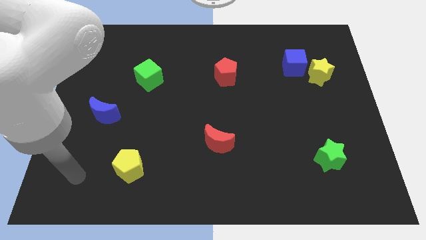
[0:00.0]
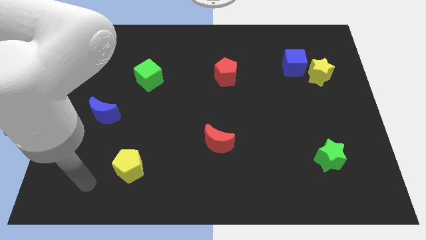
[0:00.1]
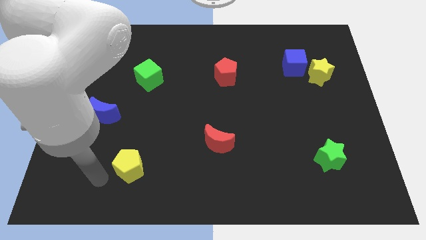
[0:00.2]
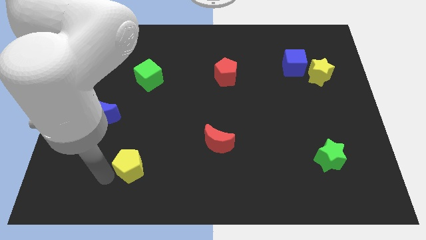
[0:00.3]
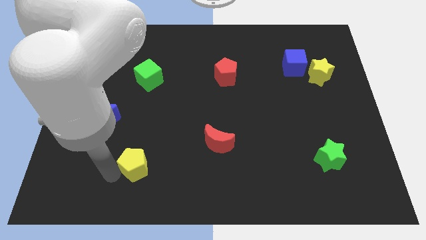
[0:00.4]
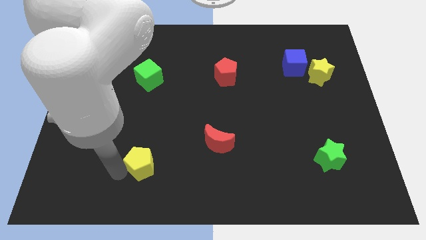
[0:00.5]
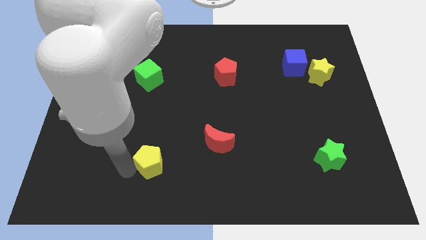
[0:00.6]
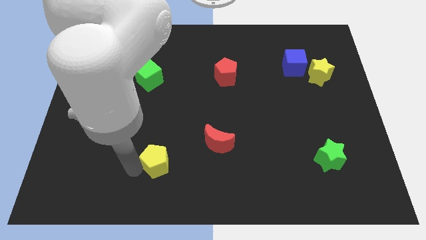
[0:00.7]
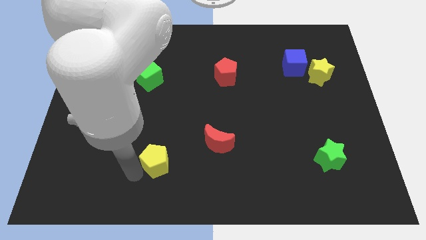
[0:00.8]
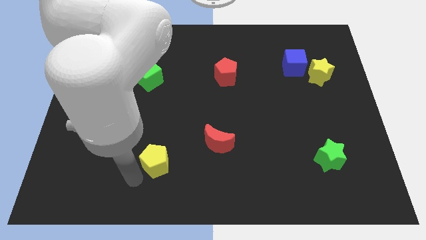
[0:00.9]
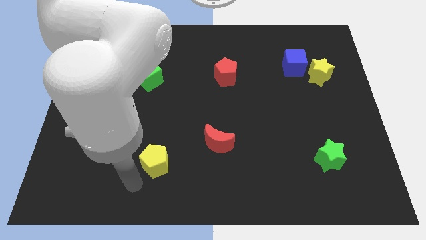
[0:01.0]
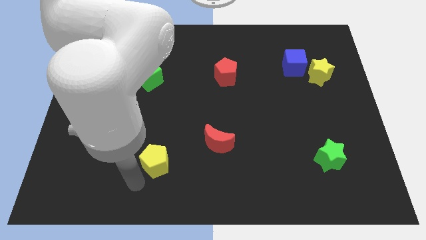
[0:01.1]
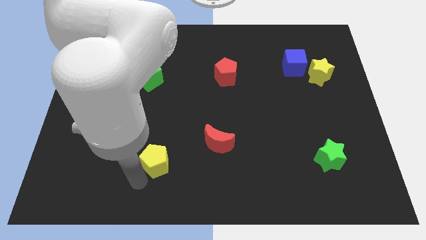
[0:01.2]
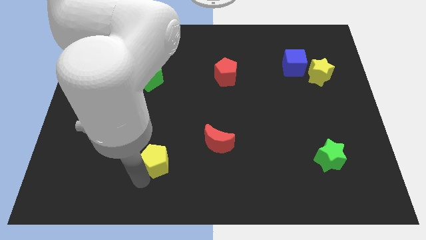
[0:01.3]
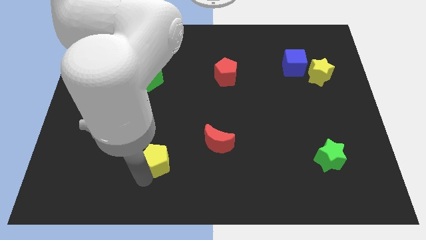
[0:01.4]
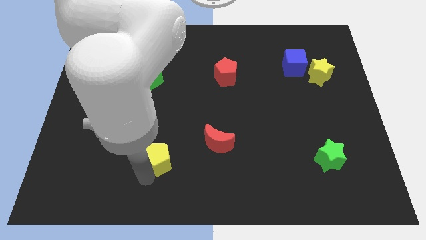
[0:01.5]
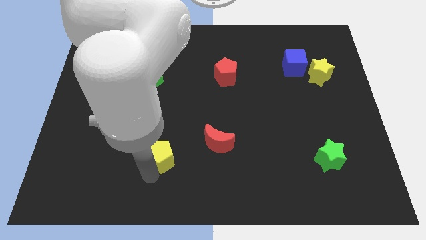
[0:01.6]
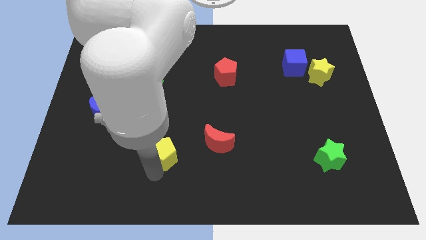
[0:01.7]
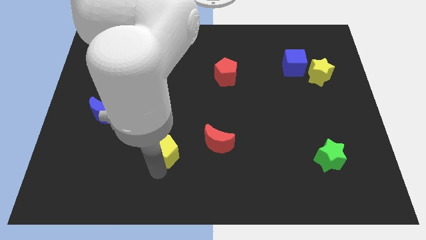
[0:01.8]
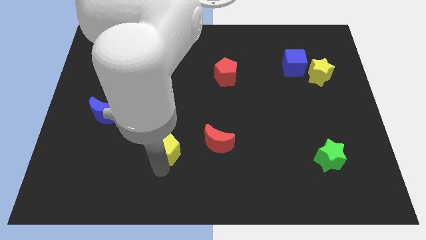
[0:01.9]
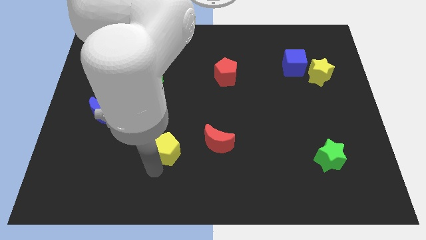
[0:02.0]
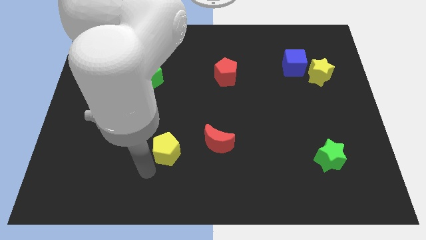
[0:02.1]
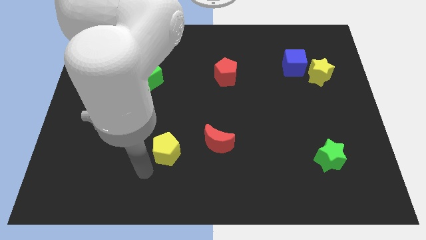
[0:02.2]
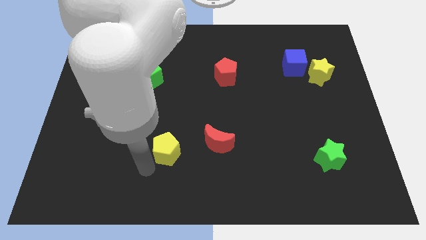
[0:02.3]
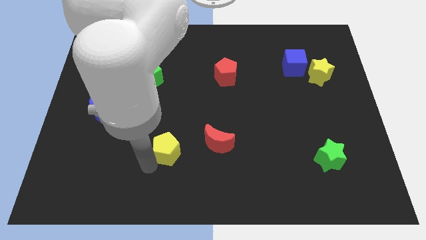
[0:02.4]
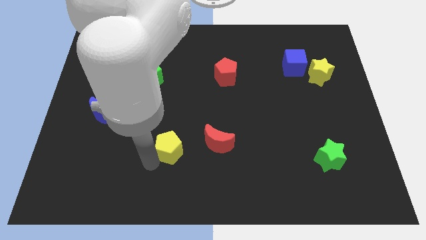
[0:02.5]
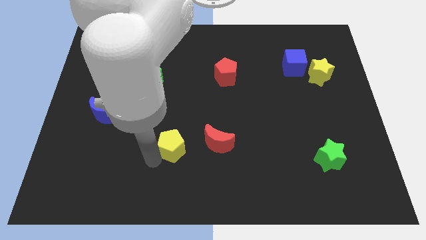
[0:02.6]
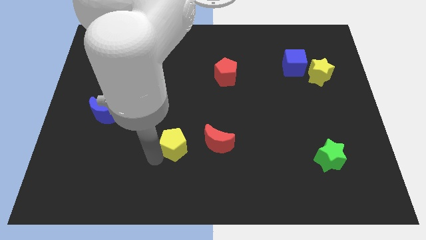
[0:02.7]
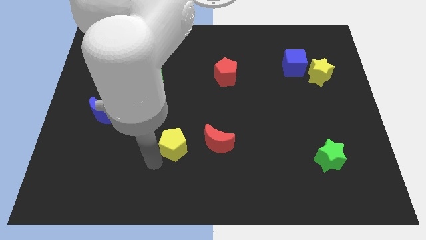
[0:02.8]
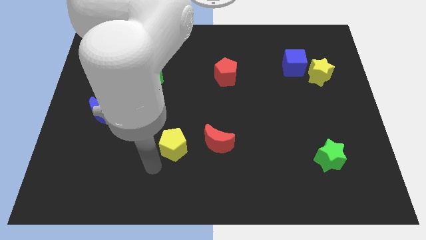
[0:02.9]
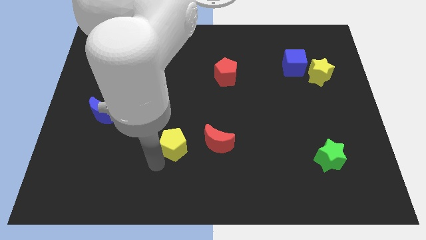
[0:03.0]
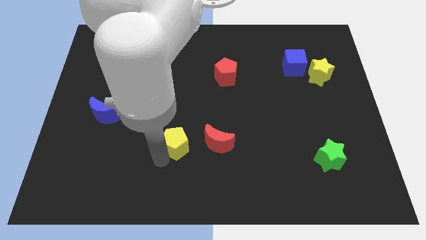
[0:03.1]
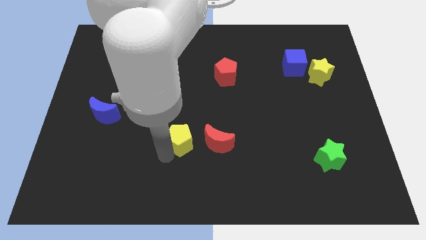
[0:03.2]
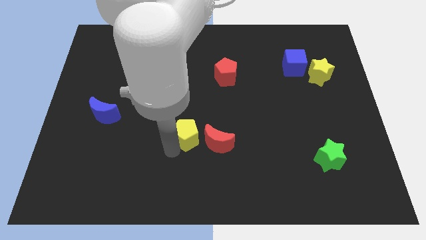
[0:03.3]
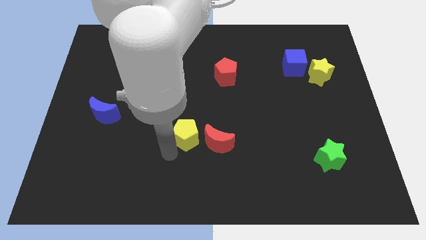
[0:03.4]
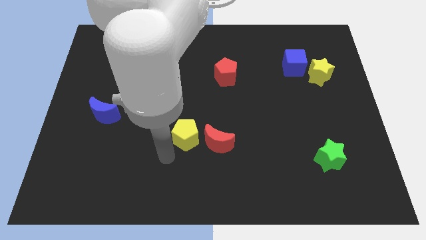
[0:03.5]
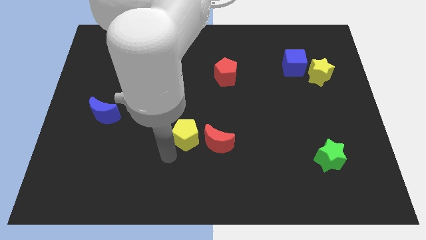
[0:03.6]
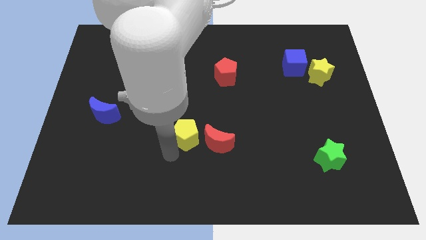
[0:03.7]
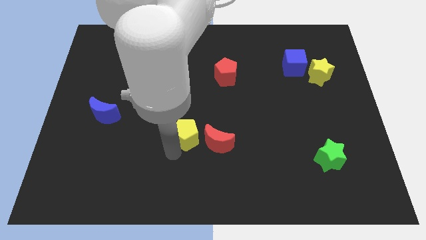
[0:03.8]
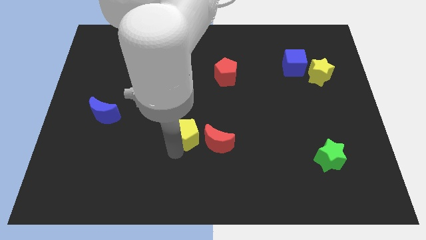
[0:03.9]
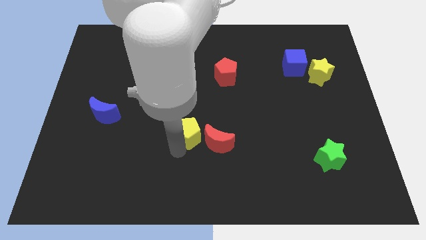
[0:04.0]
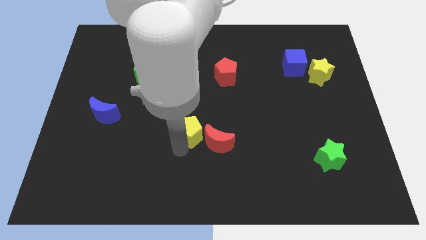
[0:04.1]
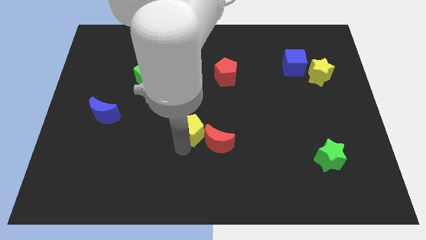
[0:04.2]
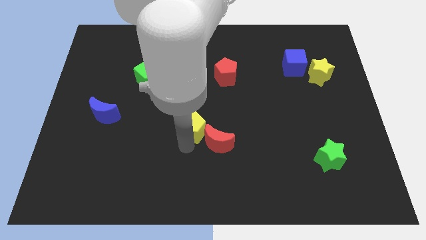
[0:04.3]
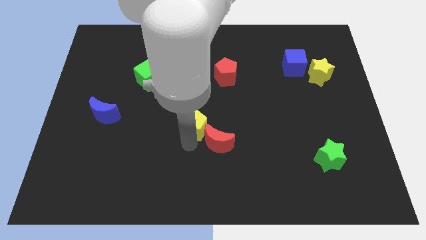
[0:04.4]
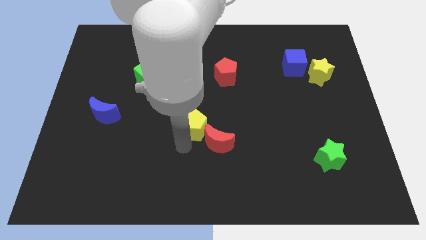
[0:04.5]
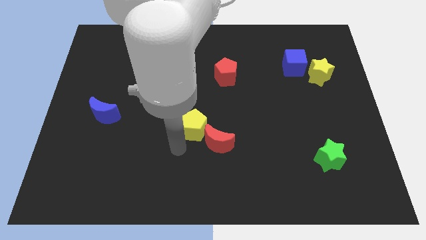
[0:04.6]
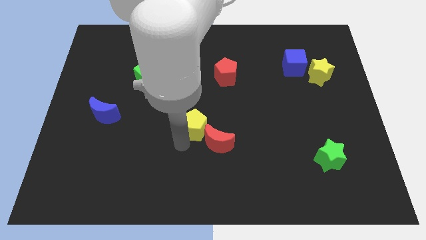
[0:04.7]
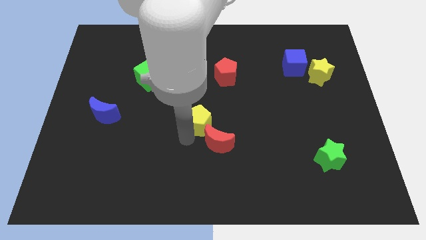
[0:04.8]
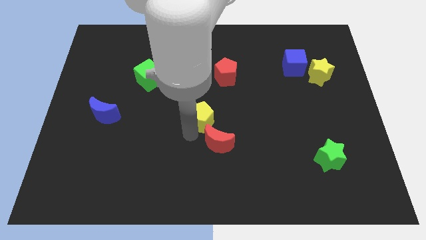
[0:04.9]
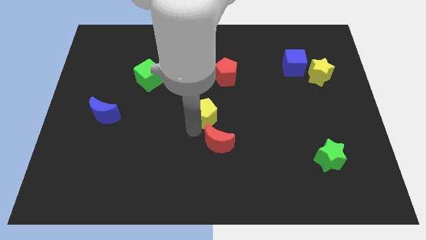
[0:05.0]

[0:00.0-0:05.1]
slide the yellow pentagon diagonally upwards and right

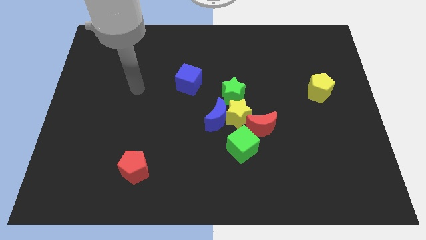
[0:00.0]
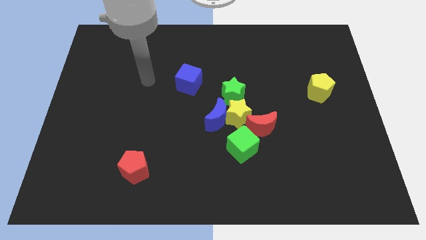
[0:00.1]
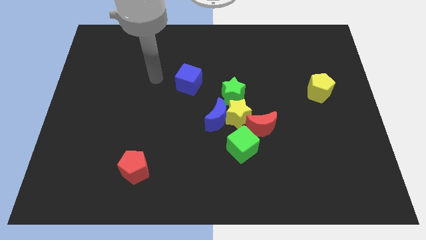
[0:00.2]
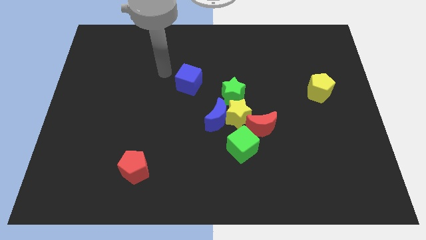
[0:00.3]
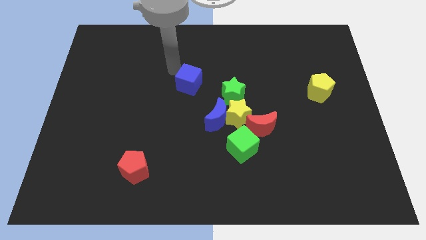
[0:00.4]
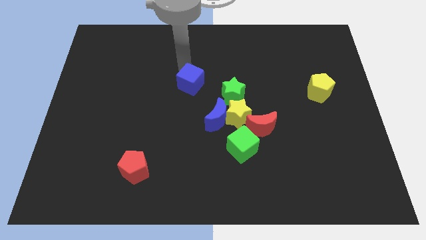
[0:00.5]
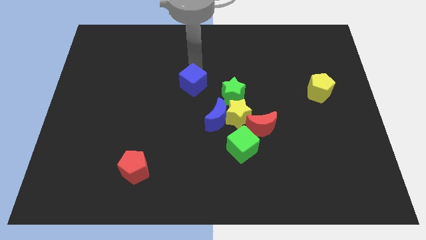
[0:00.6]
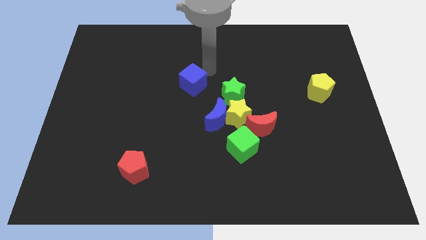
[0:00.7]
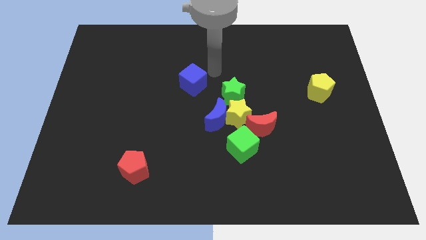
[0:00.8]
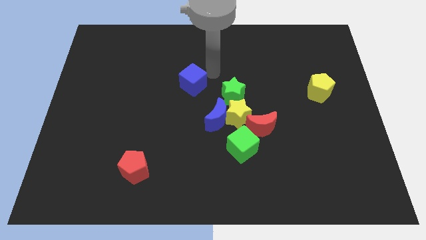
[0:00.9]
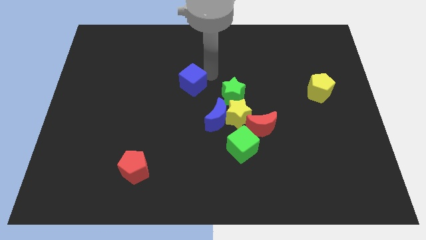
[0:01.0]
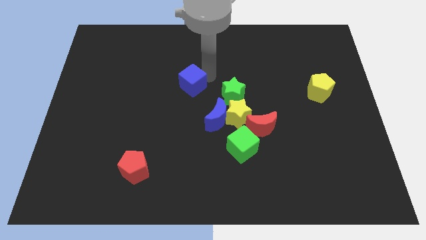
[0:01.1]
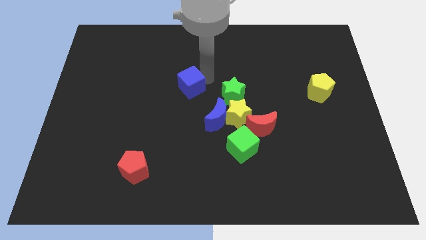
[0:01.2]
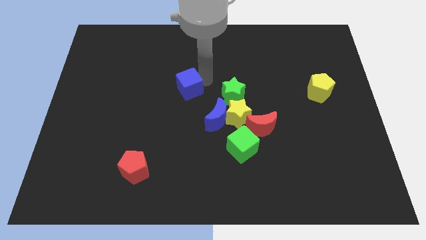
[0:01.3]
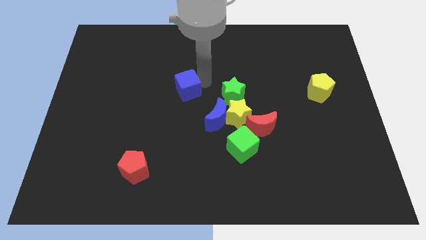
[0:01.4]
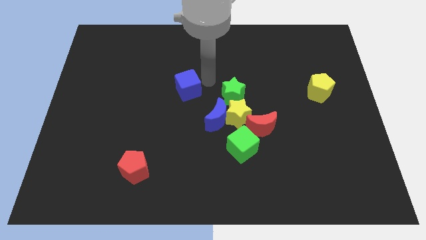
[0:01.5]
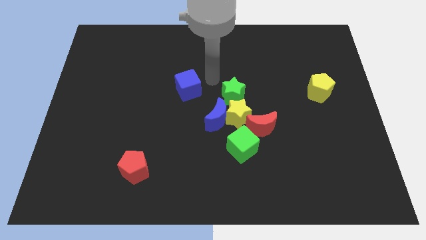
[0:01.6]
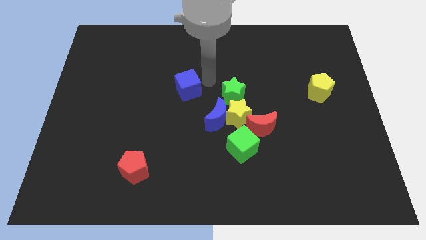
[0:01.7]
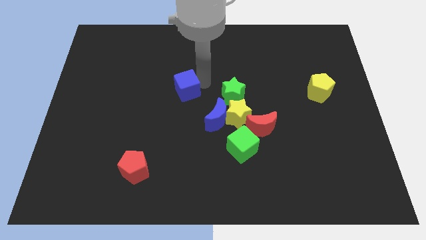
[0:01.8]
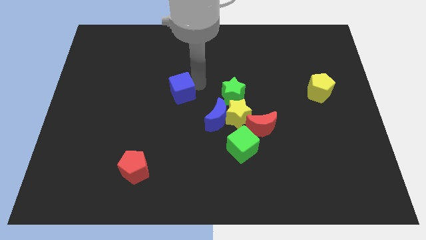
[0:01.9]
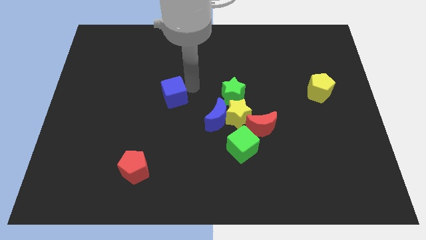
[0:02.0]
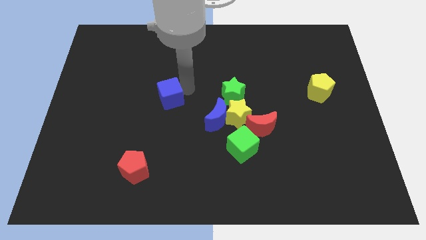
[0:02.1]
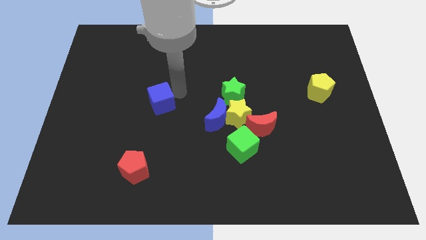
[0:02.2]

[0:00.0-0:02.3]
move the blue cube a bit diagonally downwards and to the left
